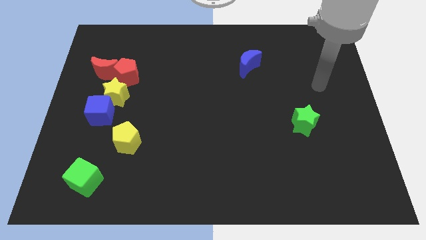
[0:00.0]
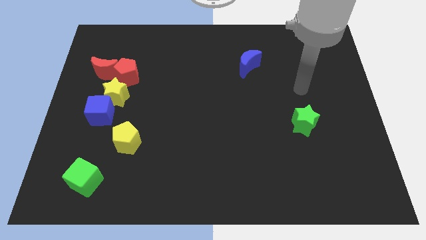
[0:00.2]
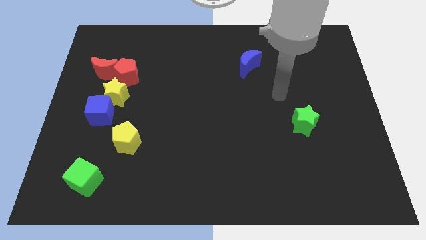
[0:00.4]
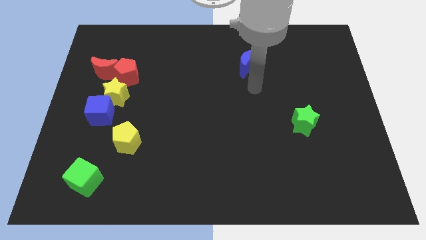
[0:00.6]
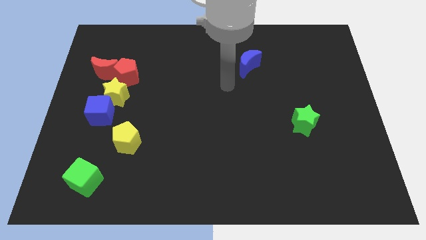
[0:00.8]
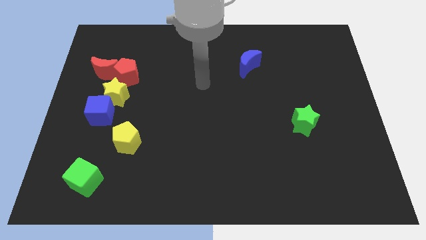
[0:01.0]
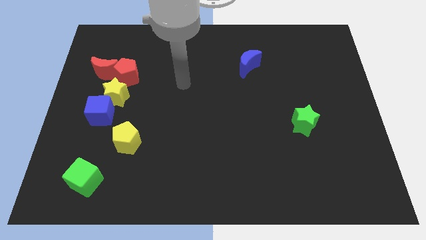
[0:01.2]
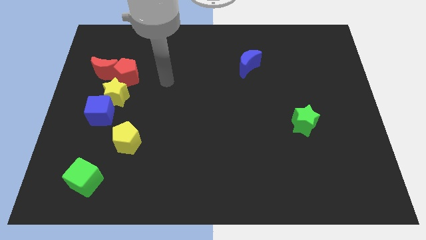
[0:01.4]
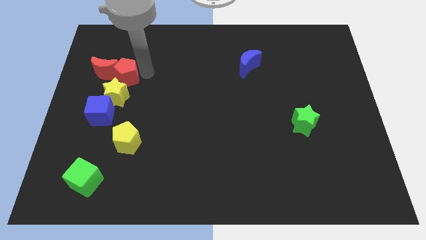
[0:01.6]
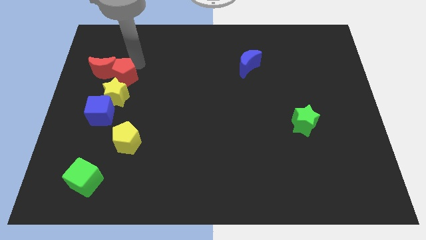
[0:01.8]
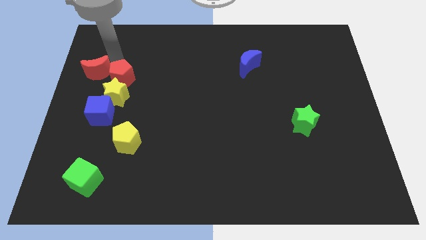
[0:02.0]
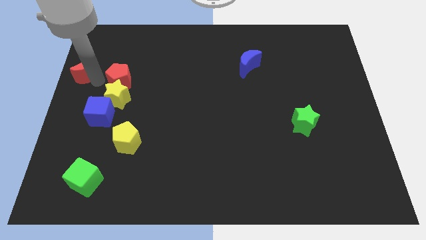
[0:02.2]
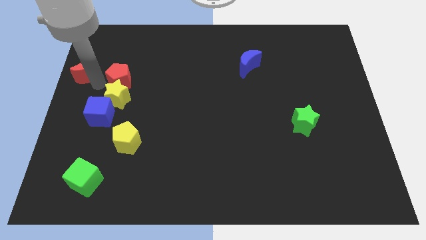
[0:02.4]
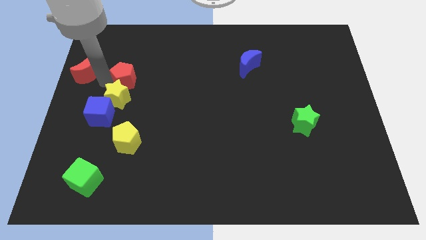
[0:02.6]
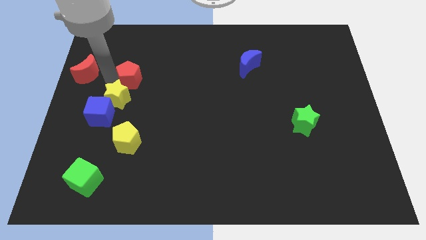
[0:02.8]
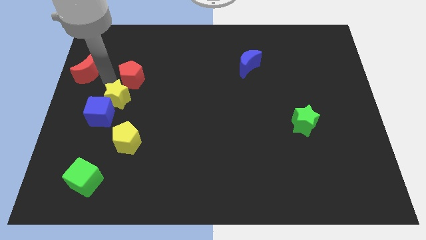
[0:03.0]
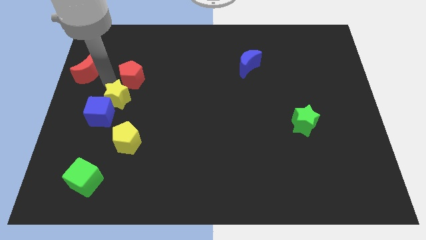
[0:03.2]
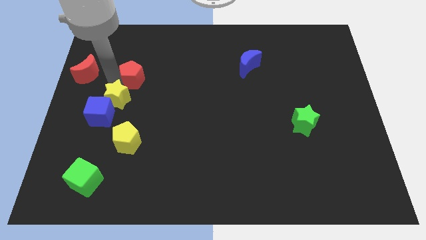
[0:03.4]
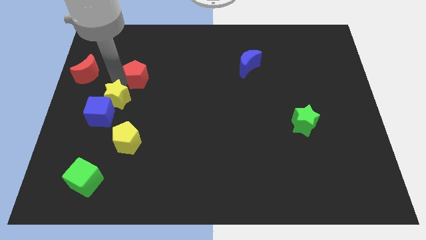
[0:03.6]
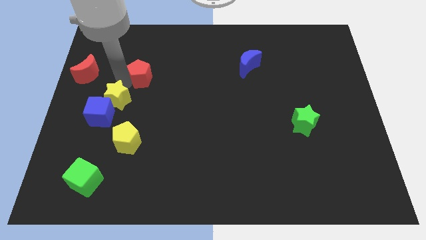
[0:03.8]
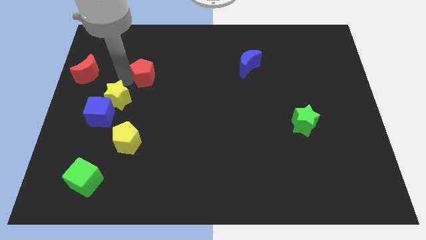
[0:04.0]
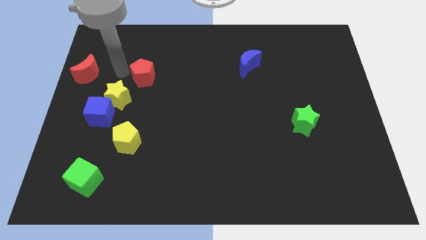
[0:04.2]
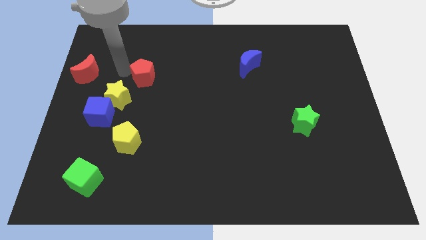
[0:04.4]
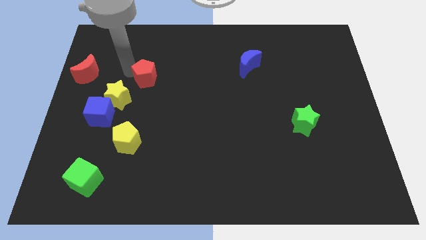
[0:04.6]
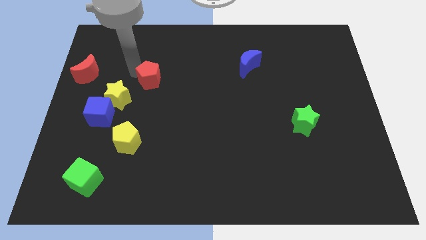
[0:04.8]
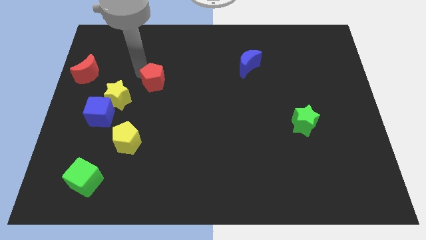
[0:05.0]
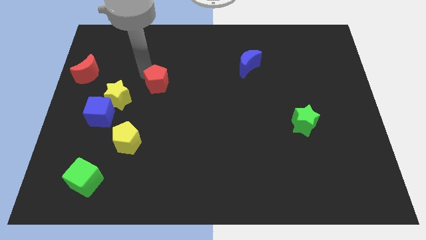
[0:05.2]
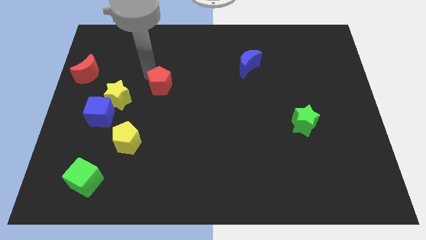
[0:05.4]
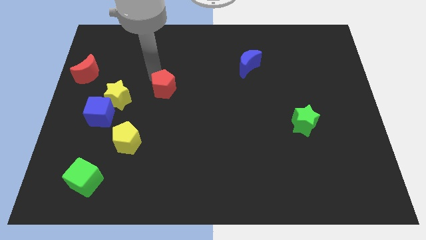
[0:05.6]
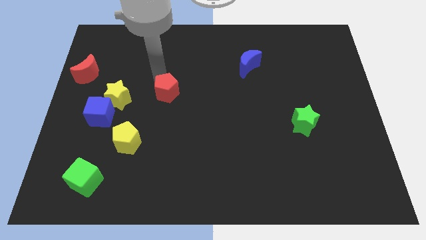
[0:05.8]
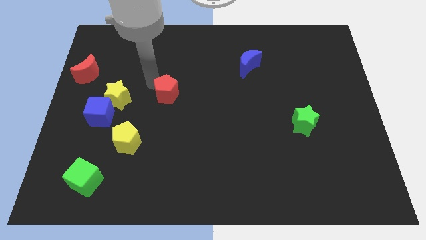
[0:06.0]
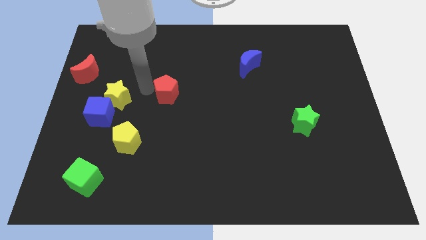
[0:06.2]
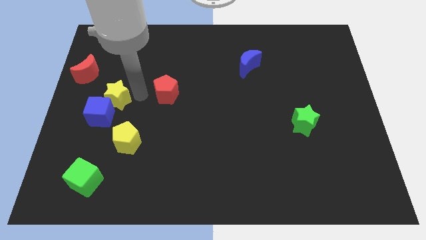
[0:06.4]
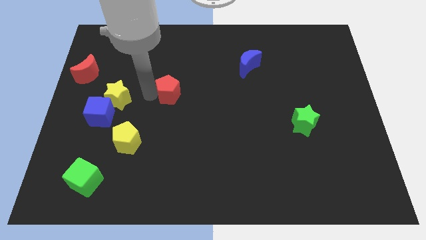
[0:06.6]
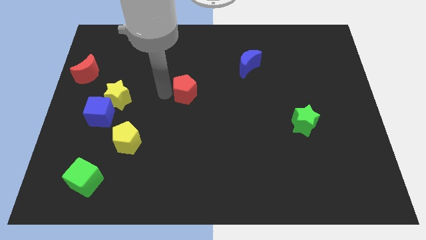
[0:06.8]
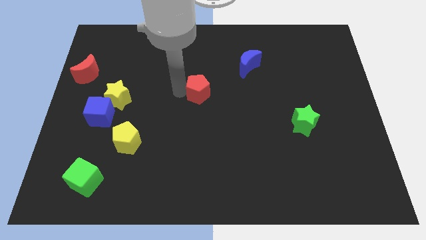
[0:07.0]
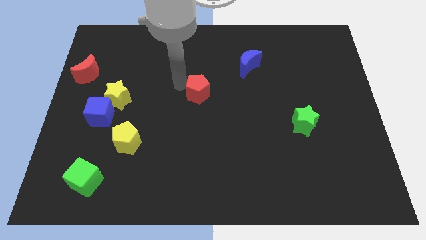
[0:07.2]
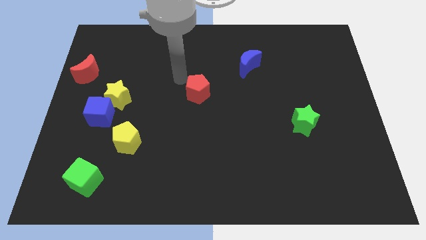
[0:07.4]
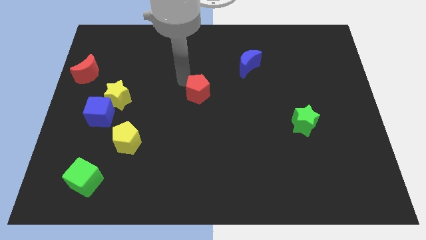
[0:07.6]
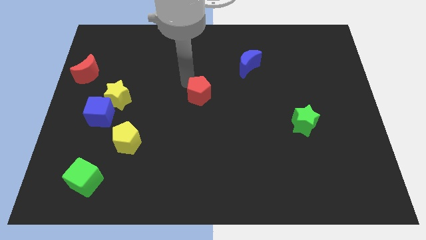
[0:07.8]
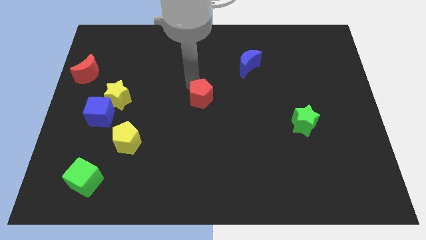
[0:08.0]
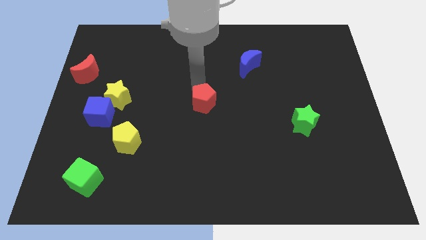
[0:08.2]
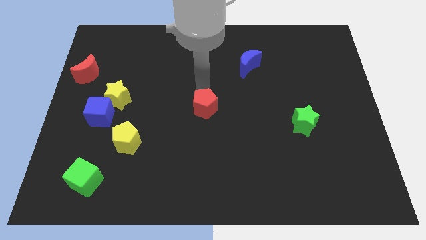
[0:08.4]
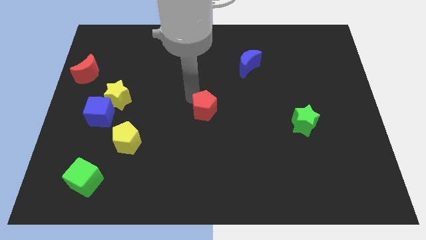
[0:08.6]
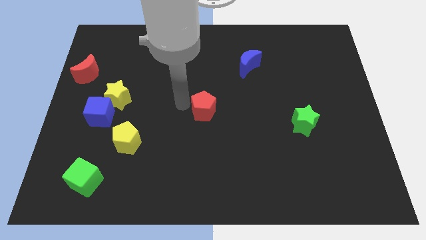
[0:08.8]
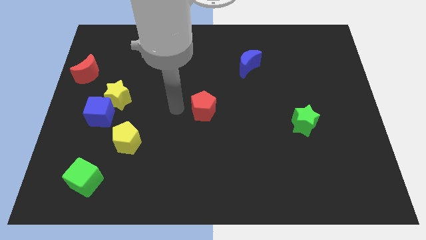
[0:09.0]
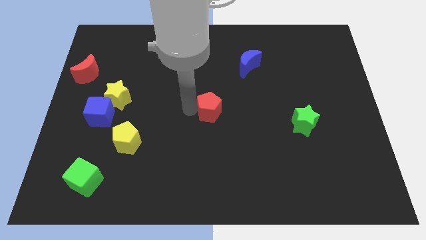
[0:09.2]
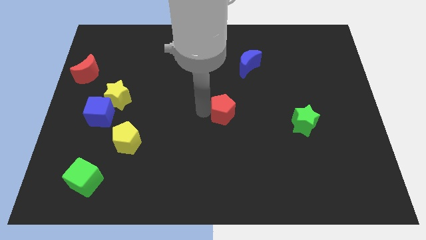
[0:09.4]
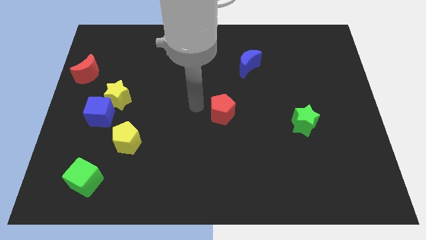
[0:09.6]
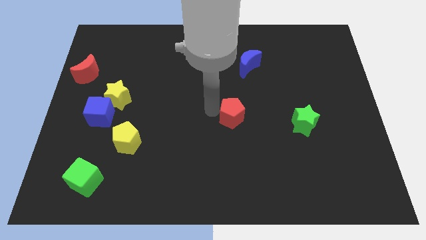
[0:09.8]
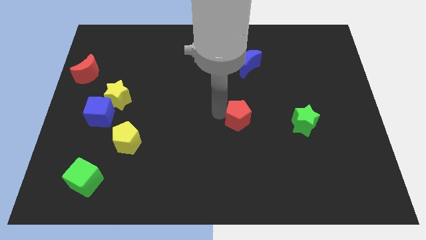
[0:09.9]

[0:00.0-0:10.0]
push the red pentagon to the left side of the green star

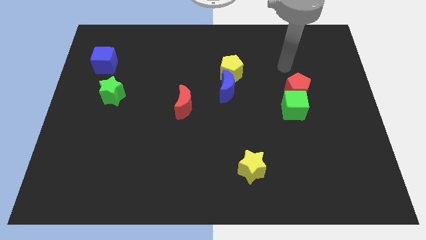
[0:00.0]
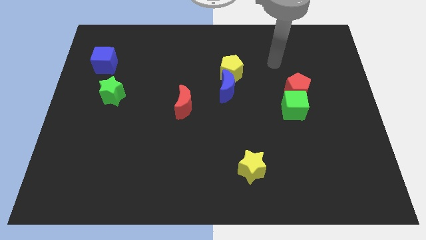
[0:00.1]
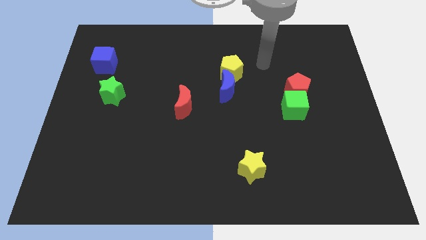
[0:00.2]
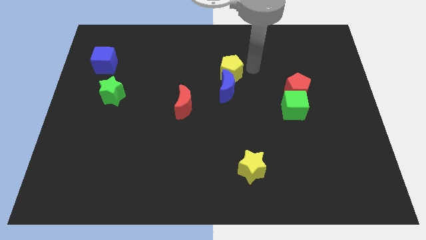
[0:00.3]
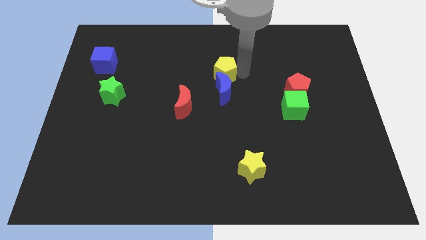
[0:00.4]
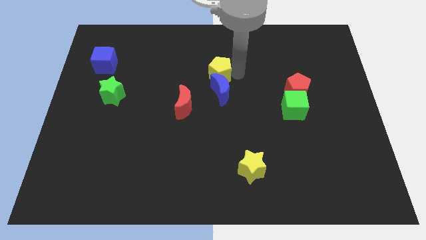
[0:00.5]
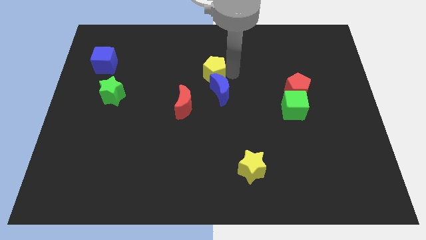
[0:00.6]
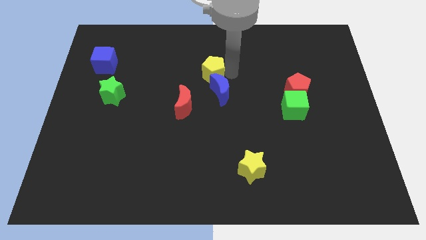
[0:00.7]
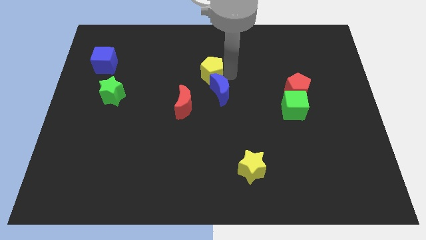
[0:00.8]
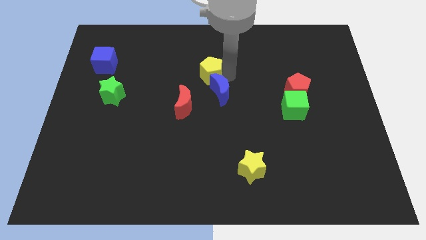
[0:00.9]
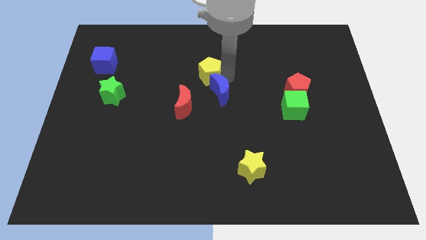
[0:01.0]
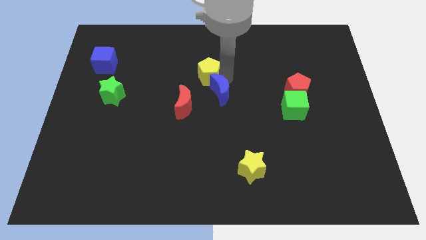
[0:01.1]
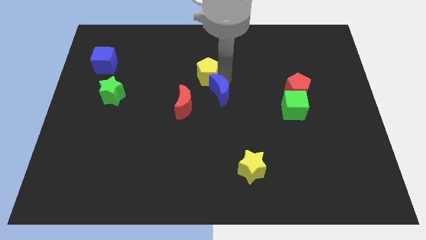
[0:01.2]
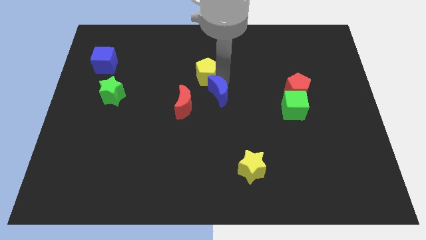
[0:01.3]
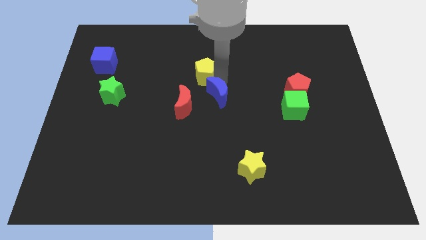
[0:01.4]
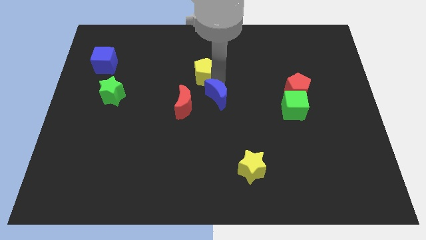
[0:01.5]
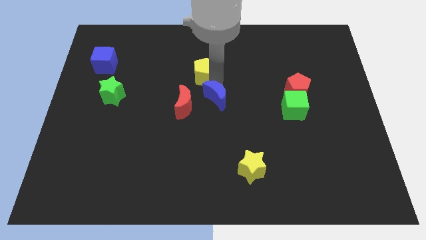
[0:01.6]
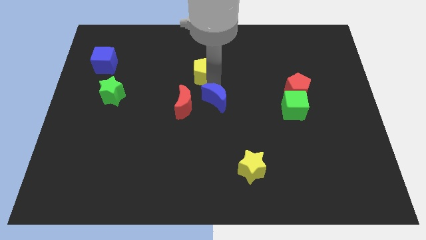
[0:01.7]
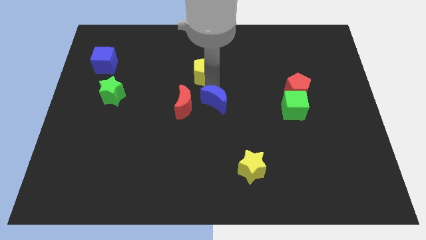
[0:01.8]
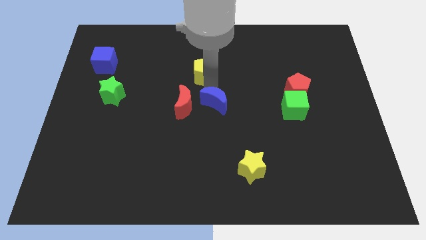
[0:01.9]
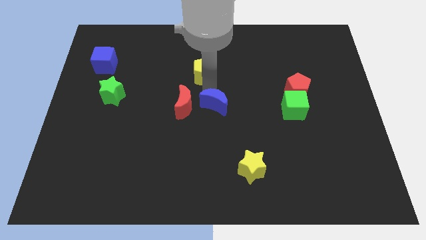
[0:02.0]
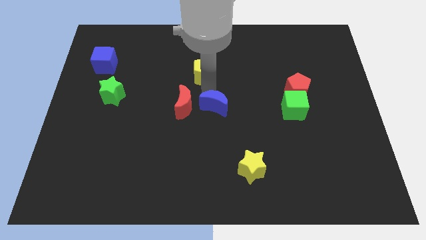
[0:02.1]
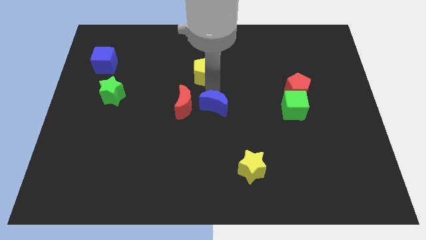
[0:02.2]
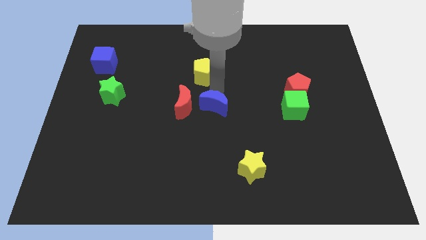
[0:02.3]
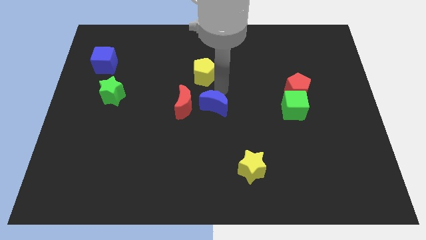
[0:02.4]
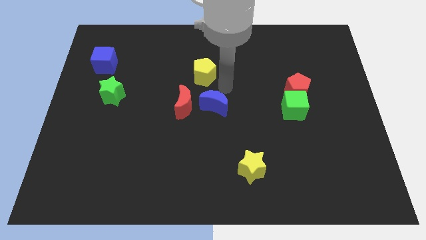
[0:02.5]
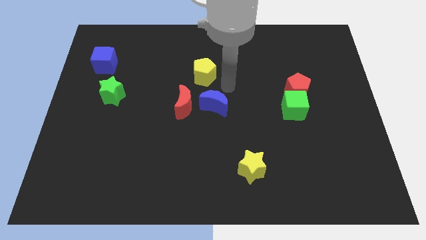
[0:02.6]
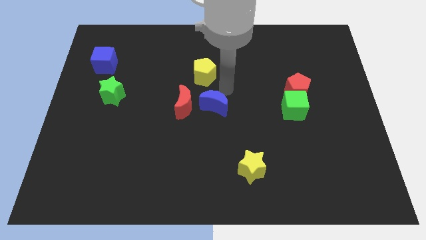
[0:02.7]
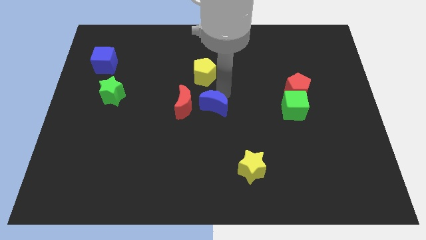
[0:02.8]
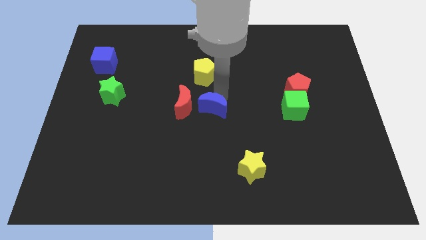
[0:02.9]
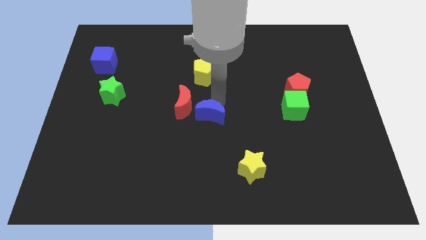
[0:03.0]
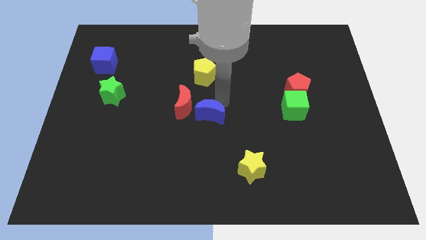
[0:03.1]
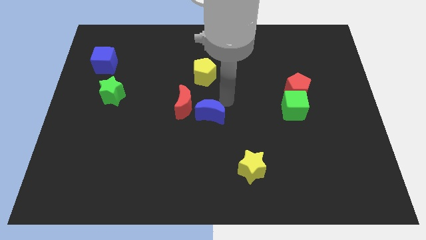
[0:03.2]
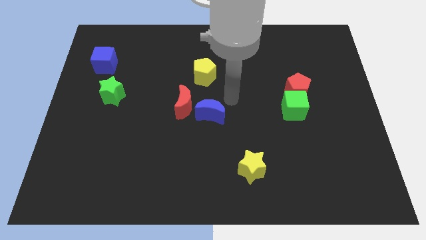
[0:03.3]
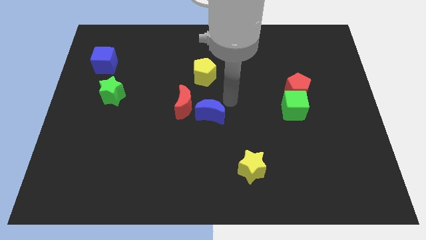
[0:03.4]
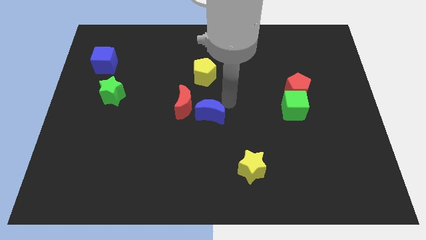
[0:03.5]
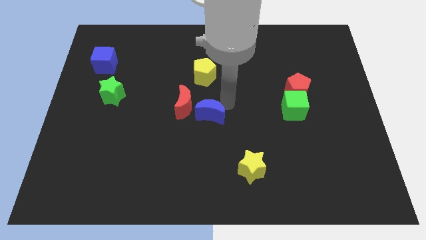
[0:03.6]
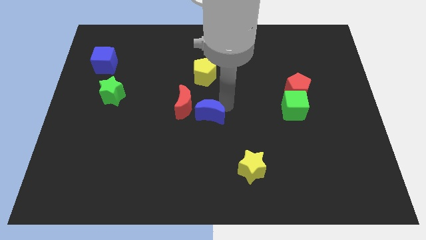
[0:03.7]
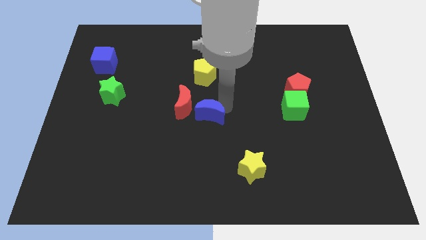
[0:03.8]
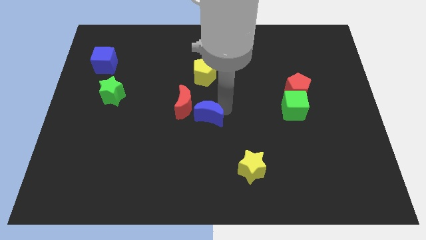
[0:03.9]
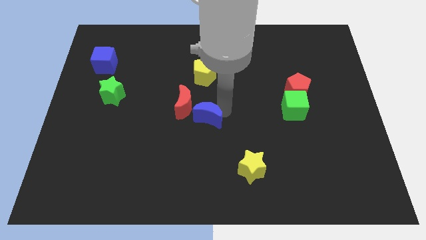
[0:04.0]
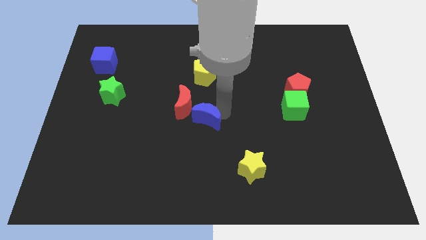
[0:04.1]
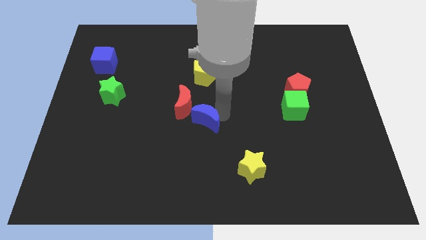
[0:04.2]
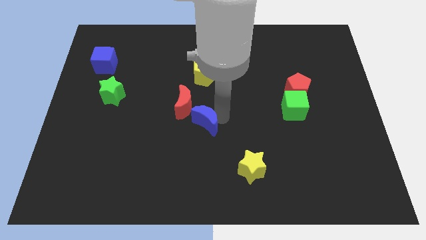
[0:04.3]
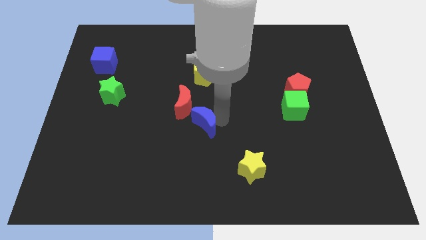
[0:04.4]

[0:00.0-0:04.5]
move the blue moon to the bottom of the red moon
